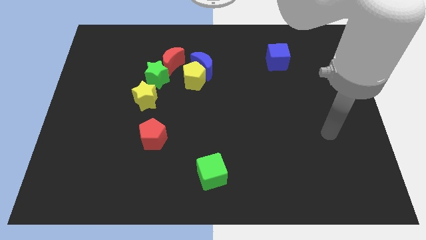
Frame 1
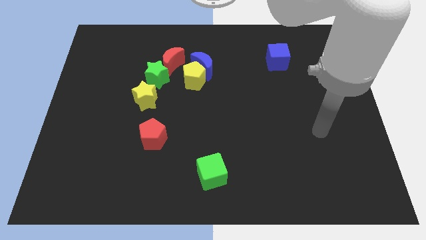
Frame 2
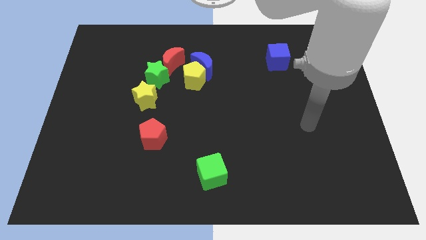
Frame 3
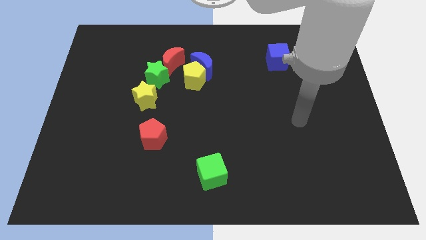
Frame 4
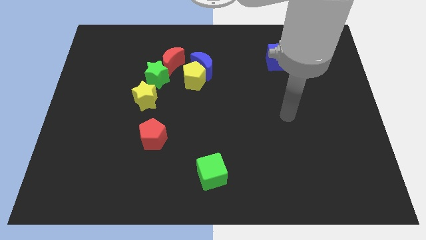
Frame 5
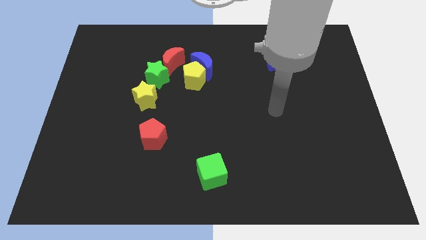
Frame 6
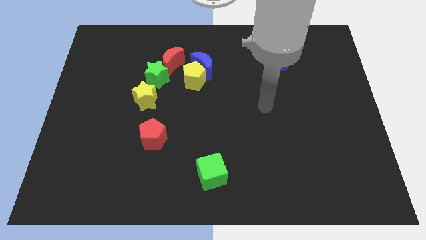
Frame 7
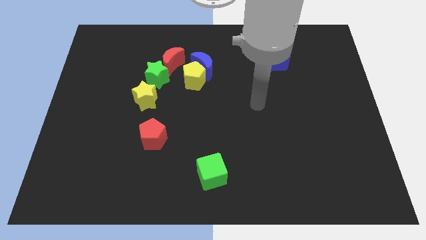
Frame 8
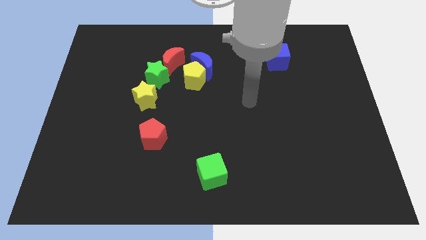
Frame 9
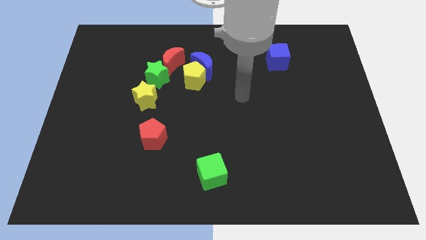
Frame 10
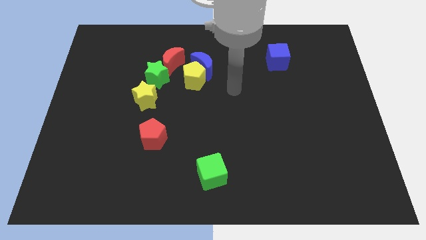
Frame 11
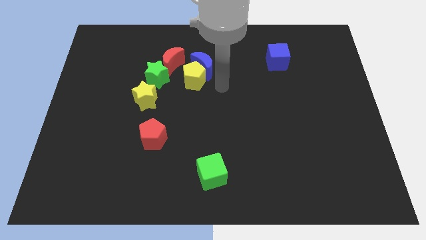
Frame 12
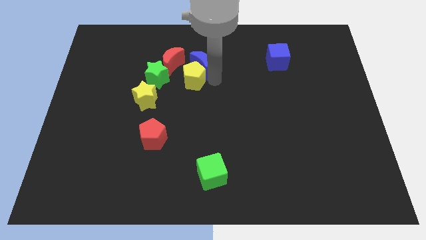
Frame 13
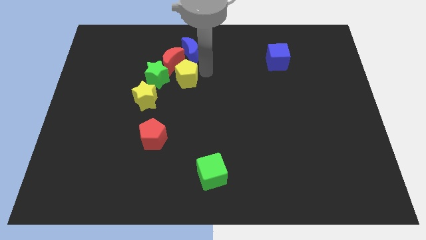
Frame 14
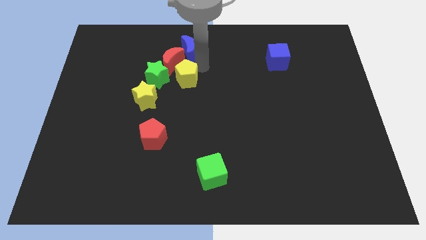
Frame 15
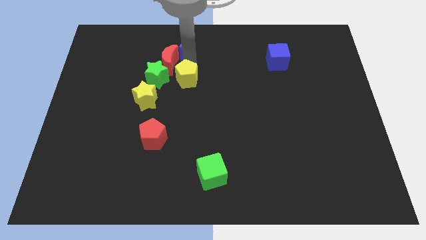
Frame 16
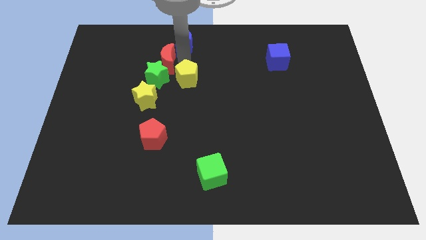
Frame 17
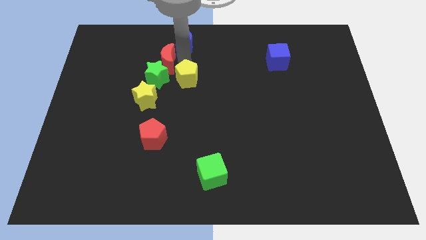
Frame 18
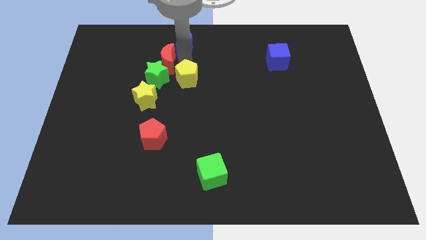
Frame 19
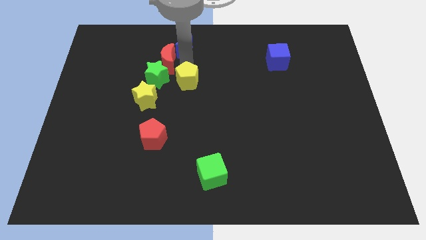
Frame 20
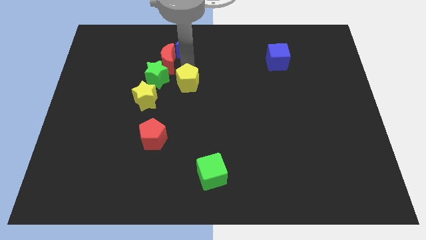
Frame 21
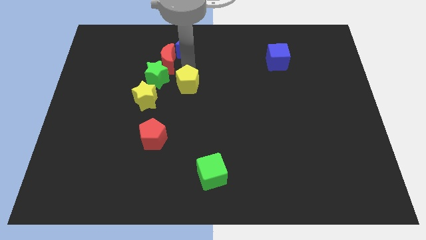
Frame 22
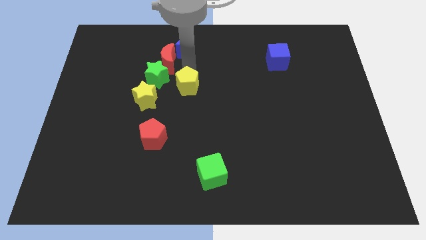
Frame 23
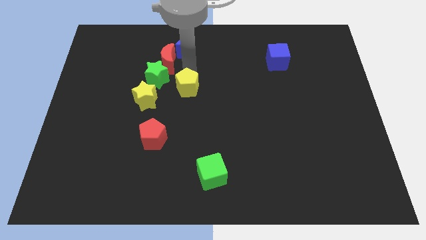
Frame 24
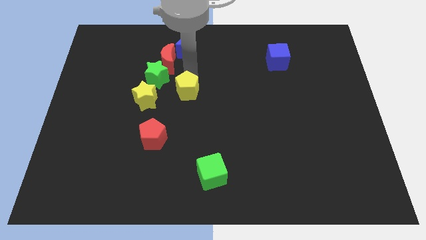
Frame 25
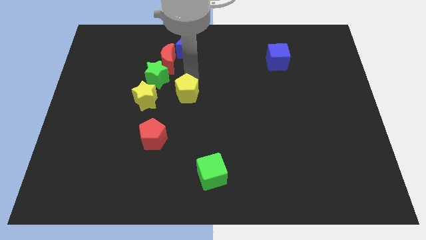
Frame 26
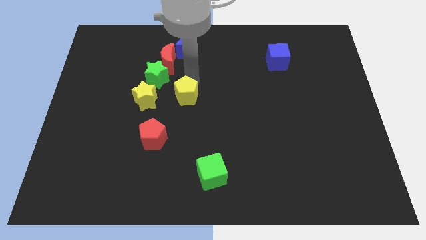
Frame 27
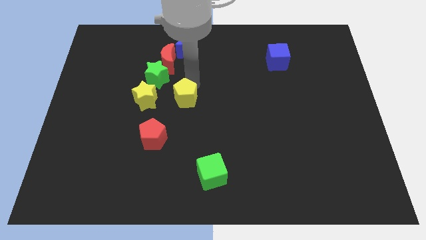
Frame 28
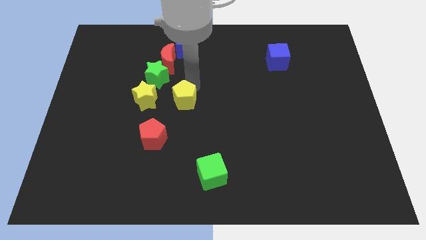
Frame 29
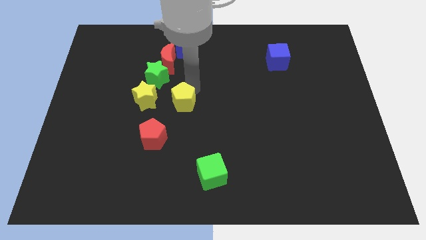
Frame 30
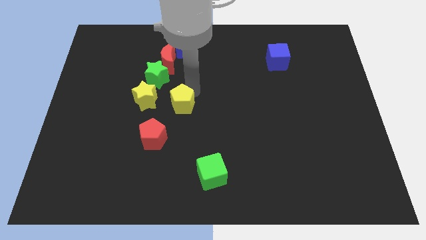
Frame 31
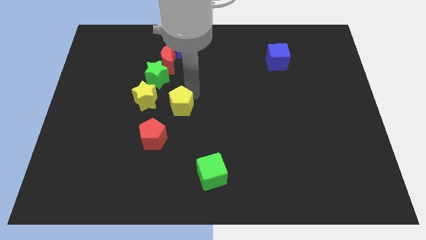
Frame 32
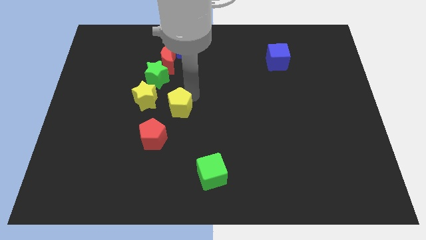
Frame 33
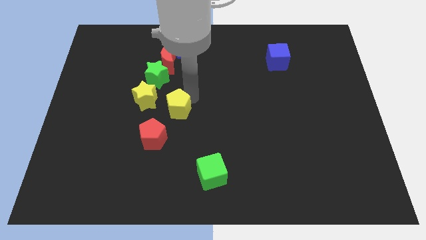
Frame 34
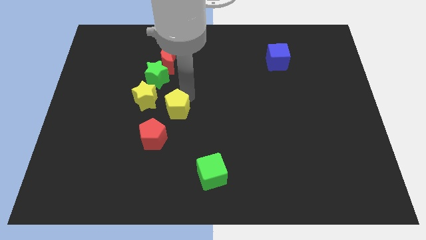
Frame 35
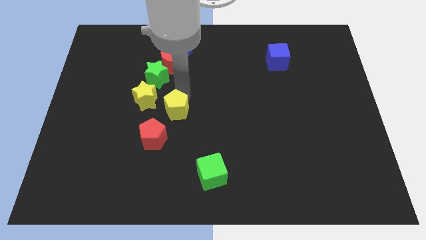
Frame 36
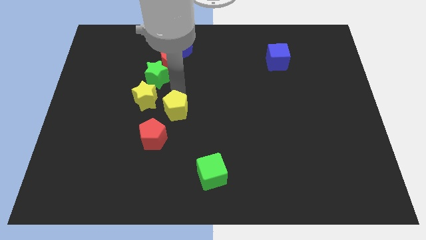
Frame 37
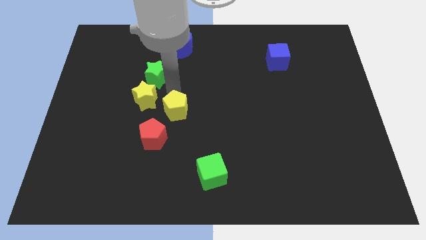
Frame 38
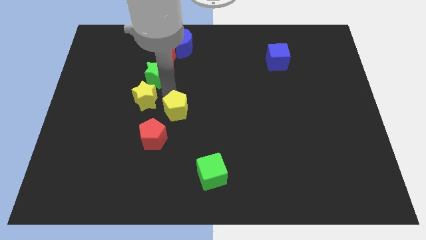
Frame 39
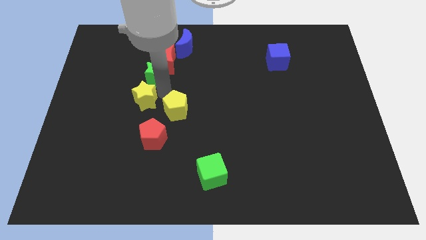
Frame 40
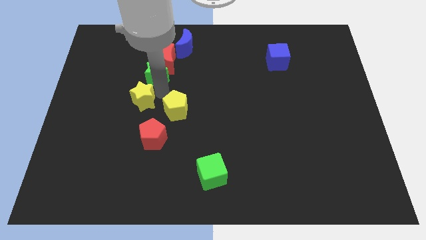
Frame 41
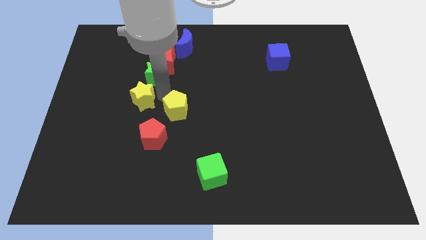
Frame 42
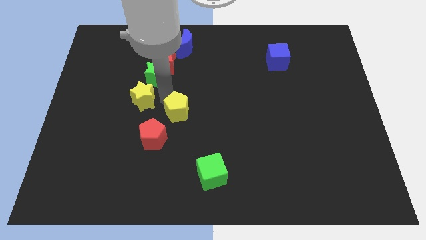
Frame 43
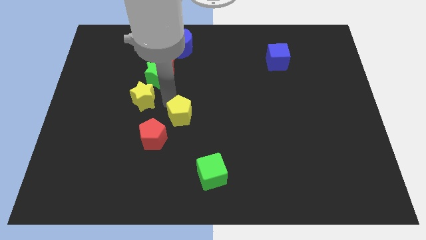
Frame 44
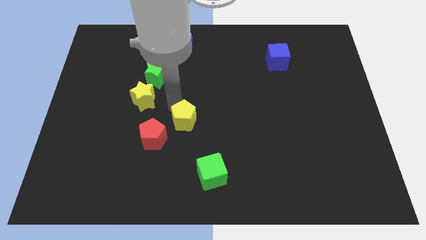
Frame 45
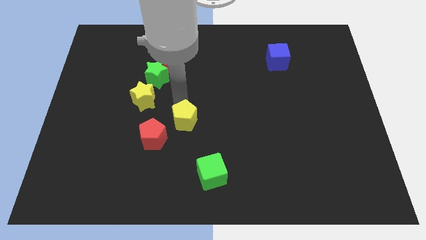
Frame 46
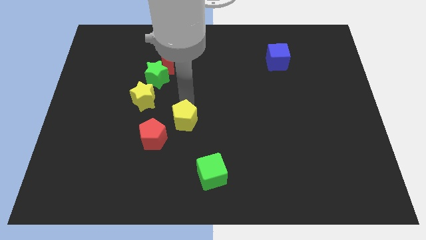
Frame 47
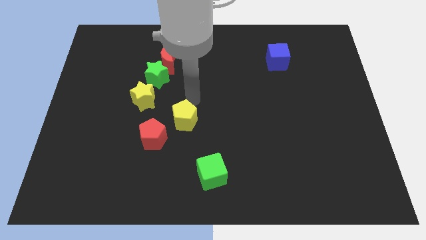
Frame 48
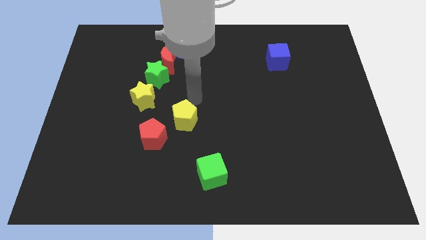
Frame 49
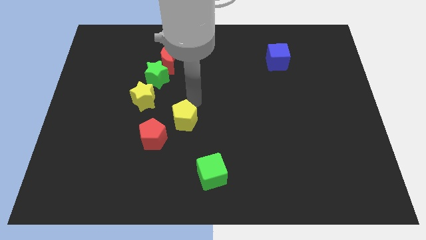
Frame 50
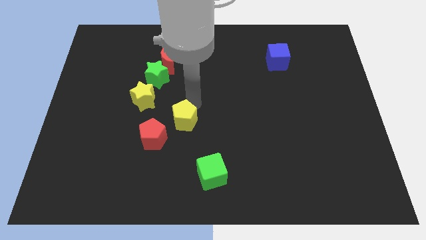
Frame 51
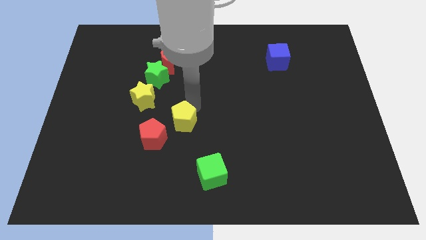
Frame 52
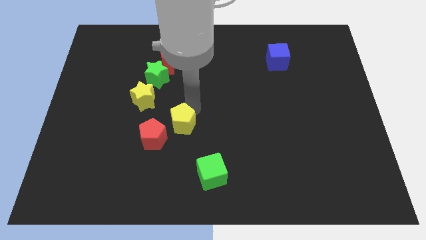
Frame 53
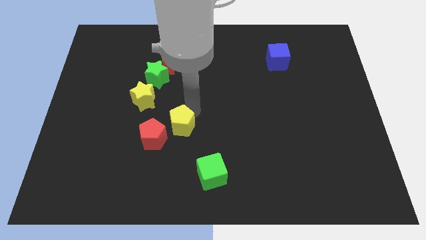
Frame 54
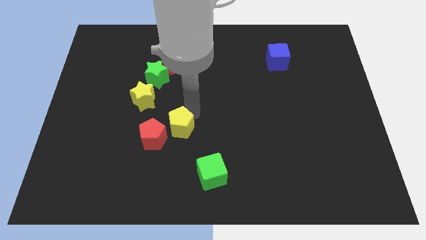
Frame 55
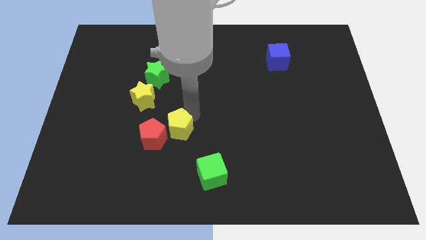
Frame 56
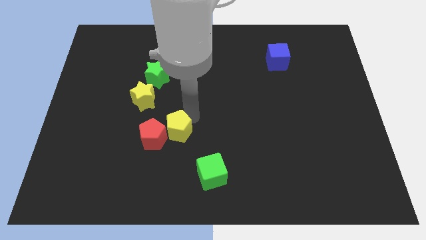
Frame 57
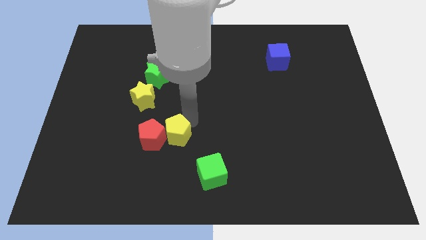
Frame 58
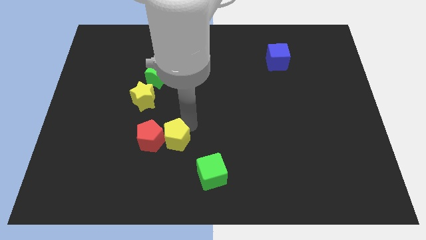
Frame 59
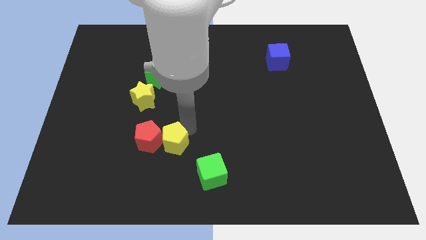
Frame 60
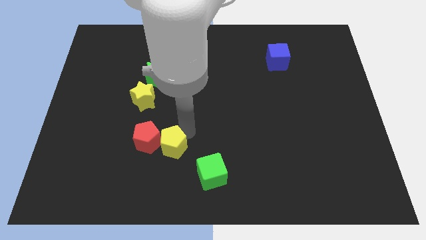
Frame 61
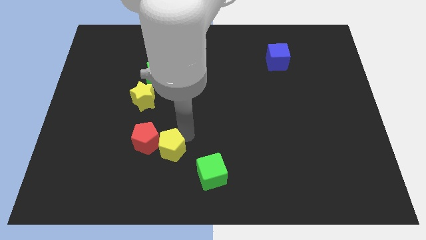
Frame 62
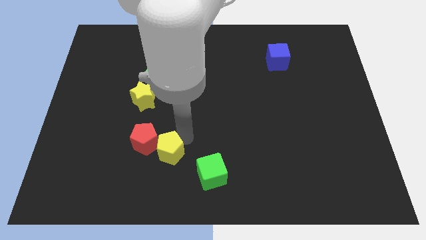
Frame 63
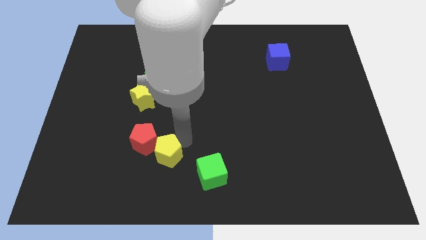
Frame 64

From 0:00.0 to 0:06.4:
put the yellow pentagon left of the green cube

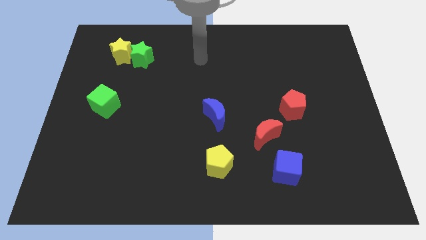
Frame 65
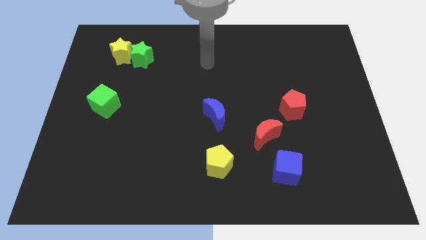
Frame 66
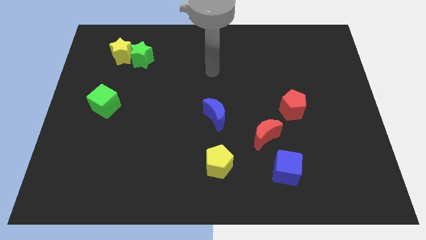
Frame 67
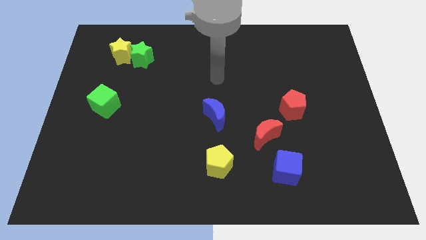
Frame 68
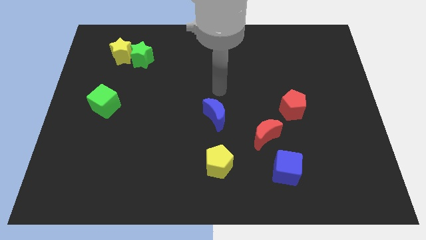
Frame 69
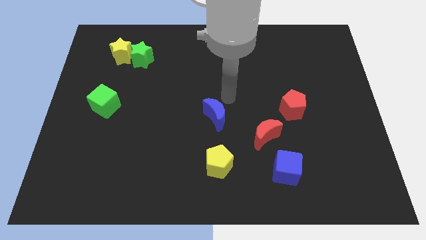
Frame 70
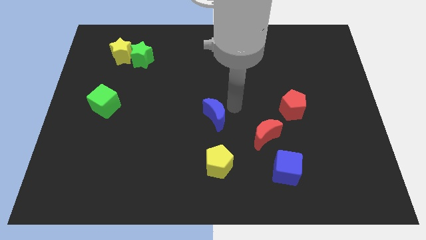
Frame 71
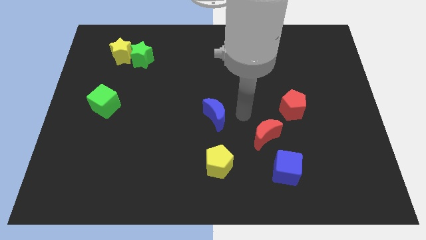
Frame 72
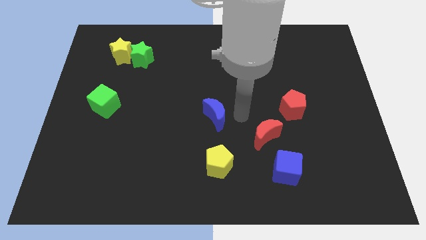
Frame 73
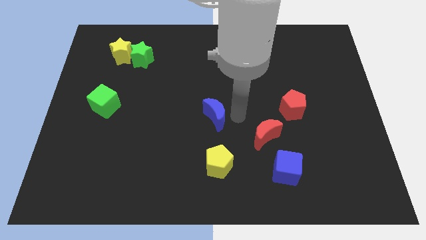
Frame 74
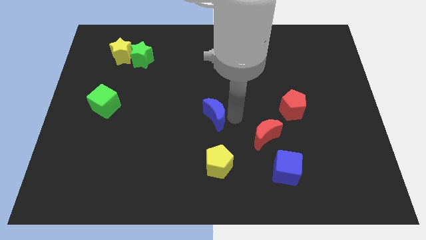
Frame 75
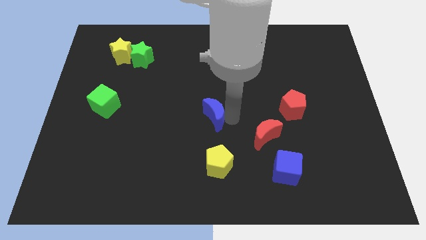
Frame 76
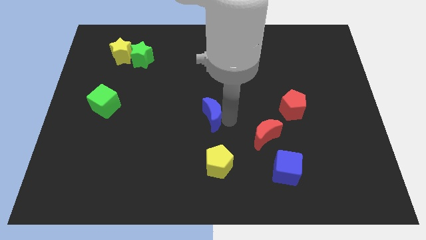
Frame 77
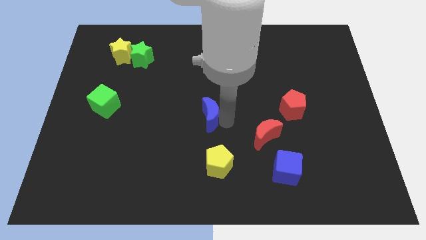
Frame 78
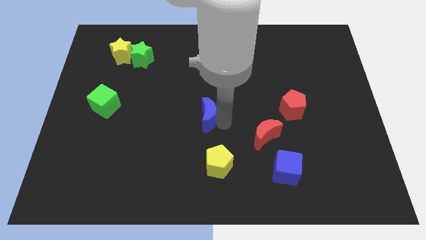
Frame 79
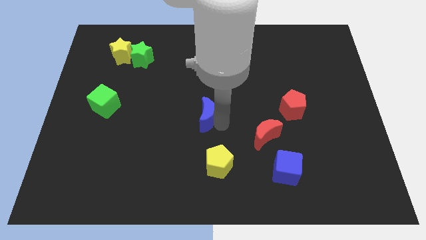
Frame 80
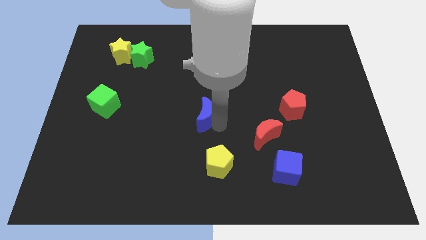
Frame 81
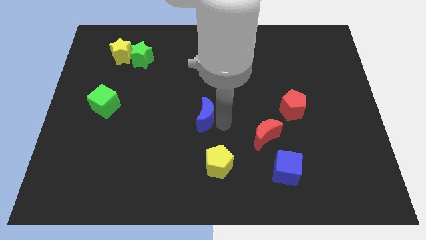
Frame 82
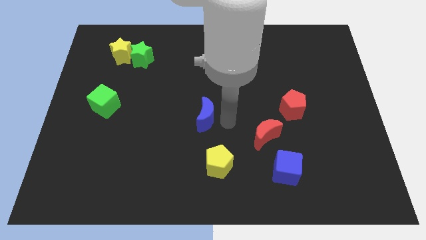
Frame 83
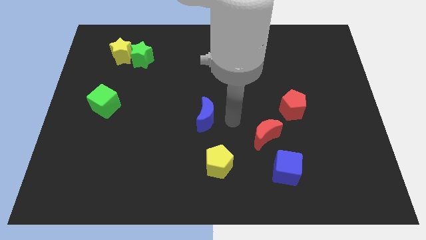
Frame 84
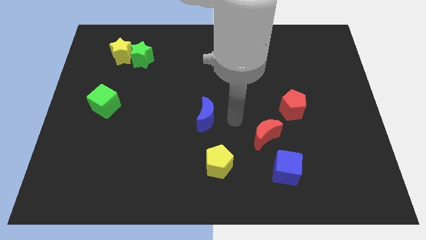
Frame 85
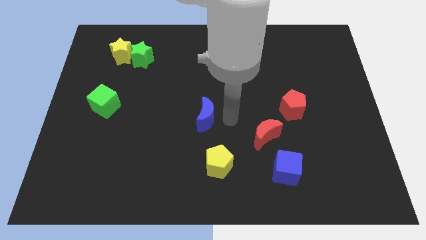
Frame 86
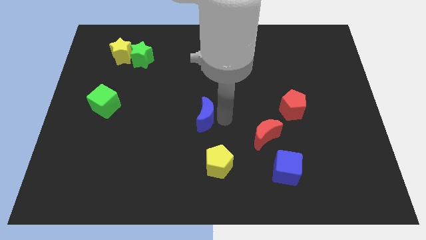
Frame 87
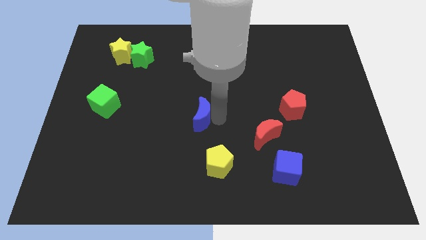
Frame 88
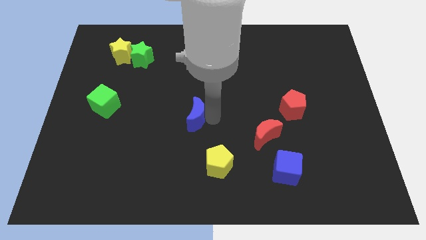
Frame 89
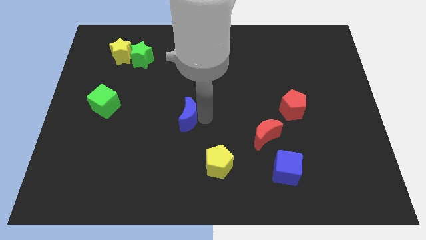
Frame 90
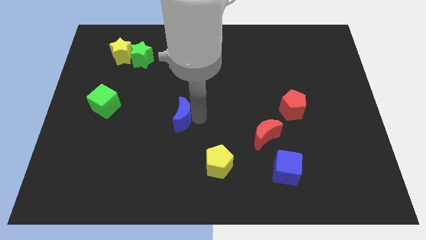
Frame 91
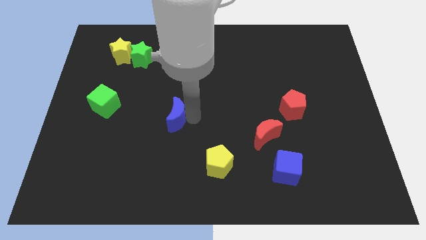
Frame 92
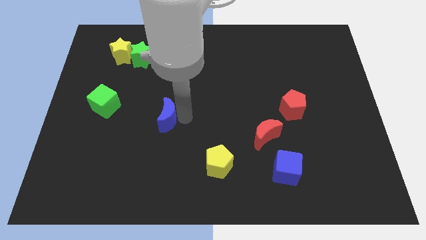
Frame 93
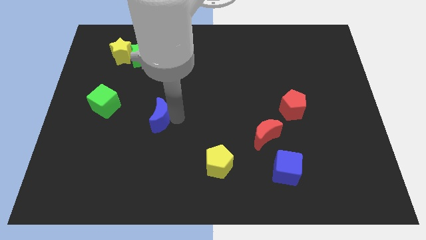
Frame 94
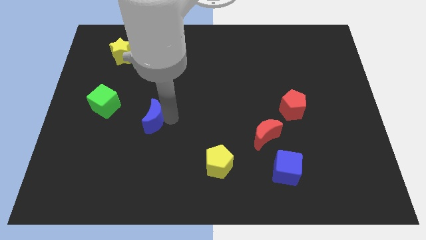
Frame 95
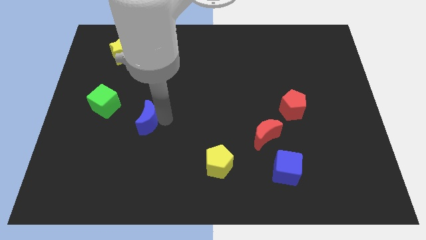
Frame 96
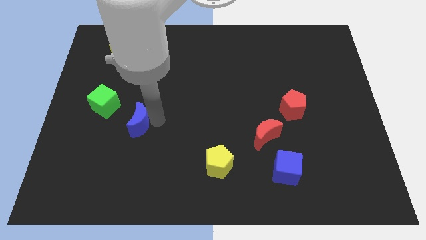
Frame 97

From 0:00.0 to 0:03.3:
slide the blue moon diagonally down and to the right of the green cube
